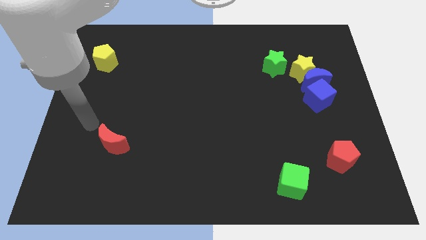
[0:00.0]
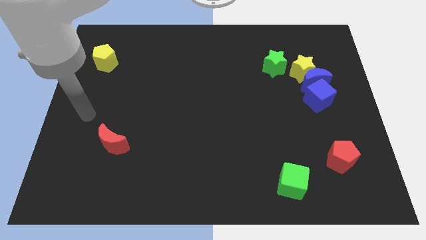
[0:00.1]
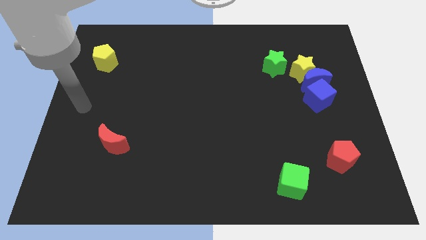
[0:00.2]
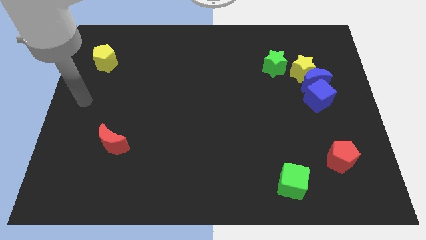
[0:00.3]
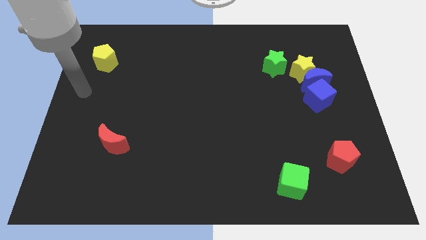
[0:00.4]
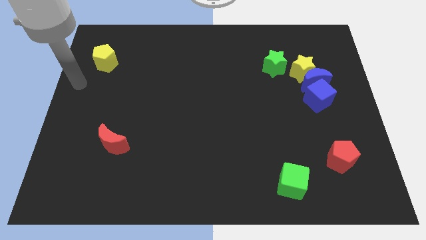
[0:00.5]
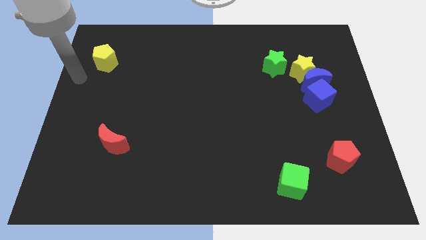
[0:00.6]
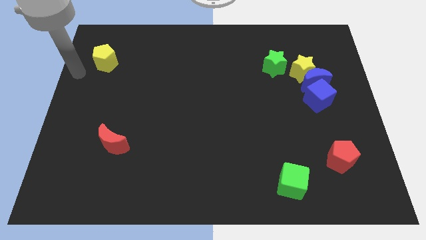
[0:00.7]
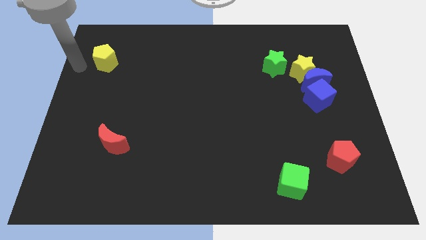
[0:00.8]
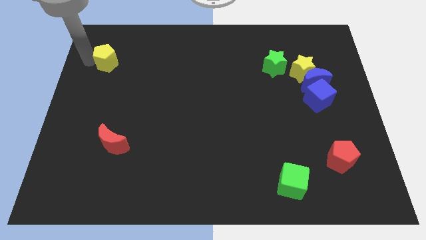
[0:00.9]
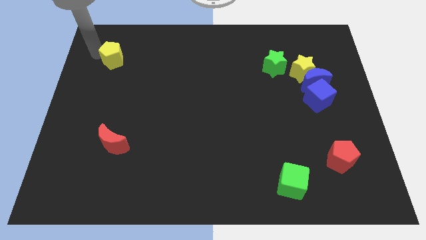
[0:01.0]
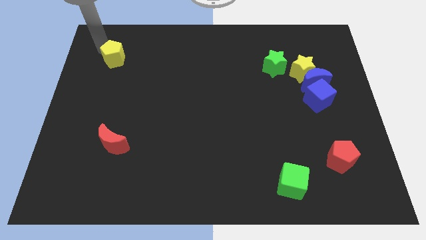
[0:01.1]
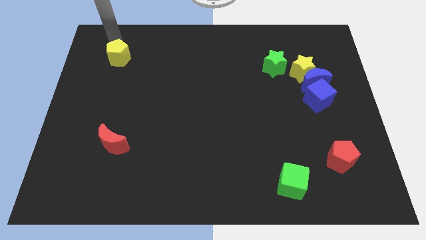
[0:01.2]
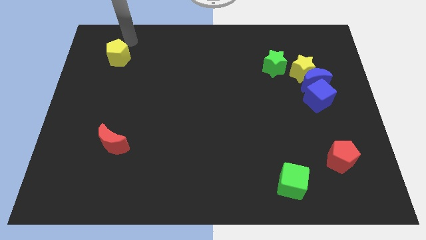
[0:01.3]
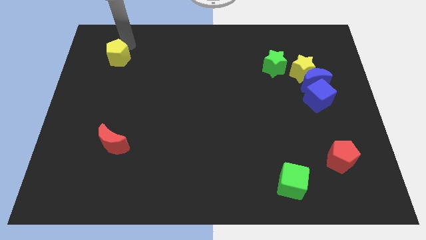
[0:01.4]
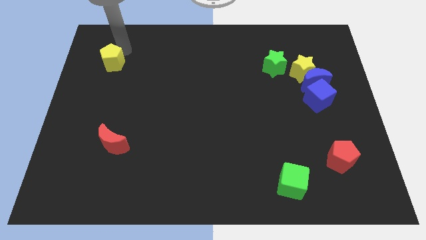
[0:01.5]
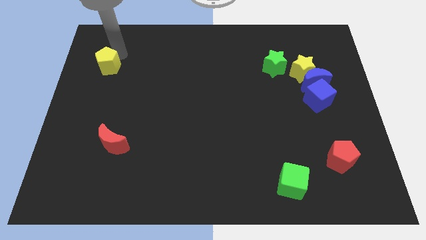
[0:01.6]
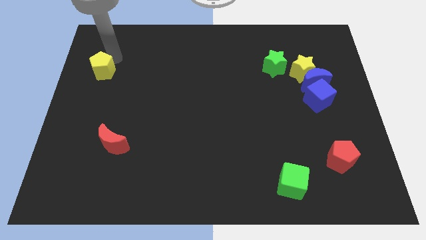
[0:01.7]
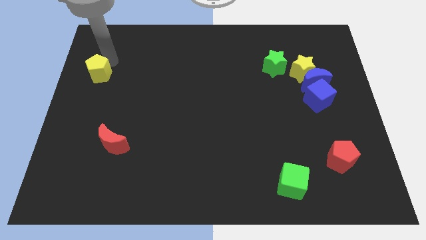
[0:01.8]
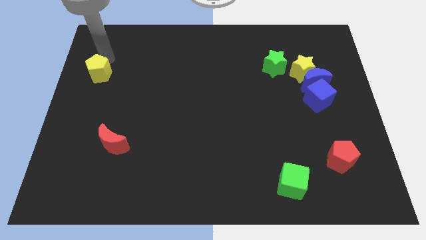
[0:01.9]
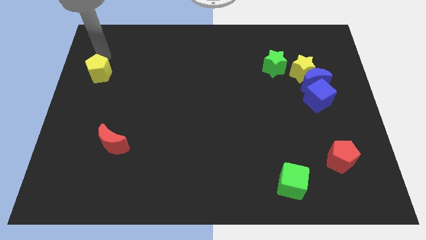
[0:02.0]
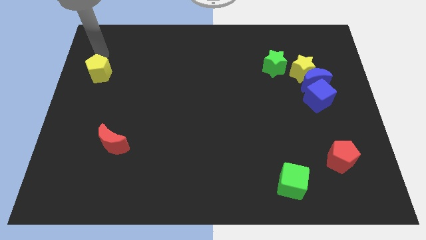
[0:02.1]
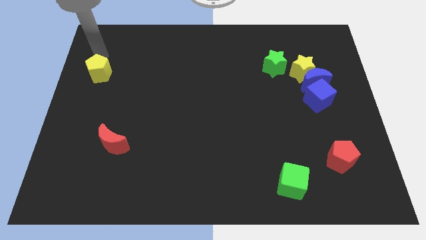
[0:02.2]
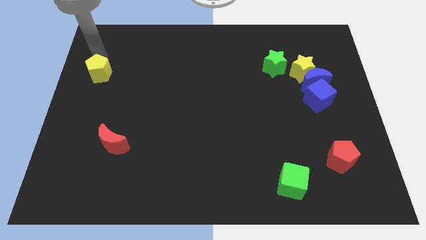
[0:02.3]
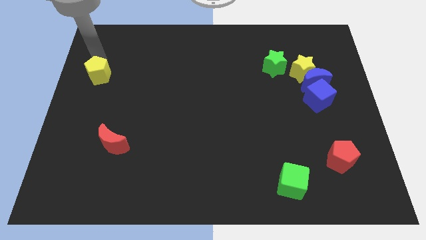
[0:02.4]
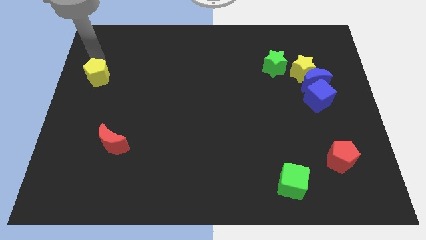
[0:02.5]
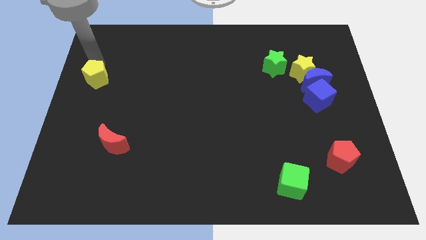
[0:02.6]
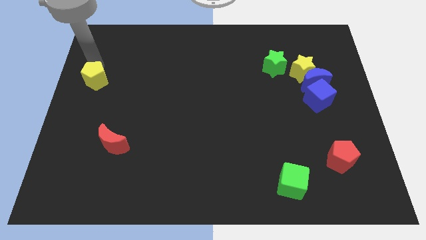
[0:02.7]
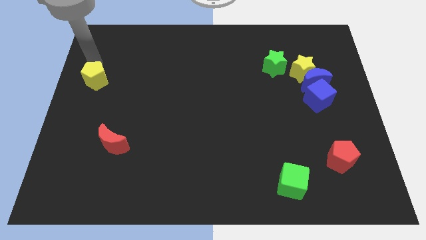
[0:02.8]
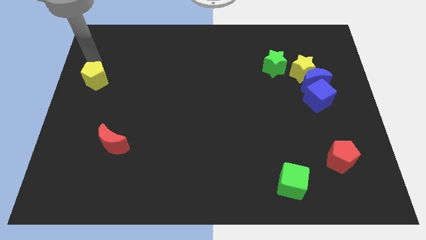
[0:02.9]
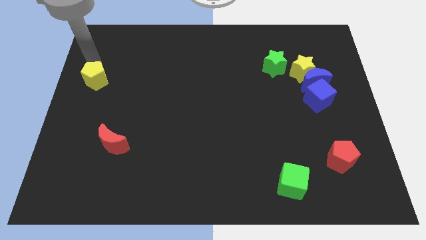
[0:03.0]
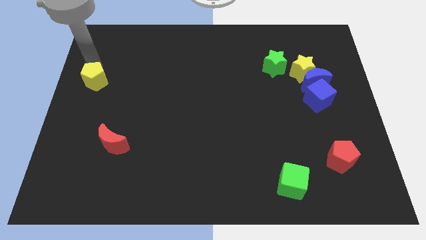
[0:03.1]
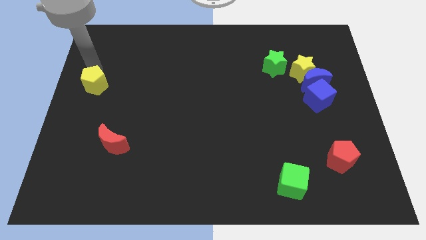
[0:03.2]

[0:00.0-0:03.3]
slide the yellow pentagon a little bit downwards

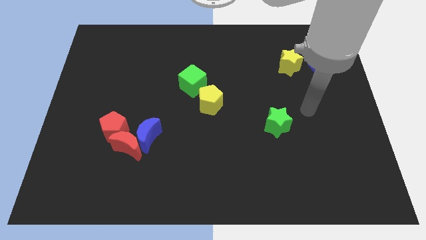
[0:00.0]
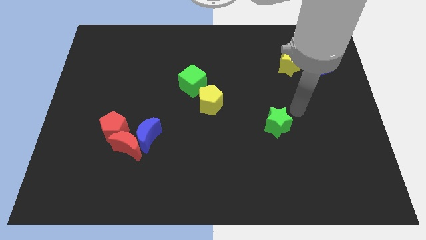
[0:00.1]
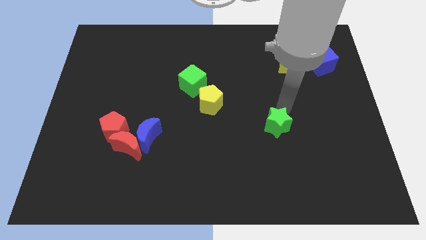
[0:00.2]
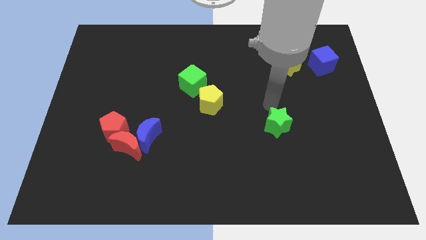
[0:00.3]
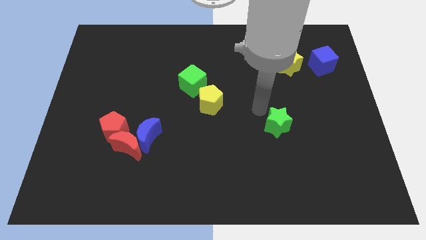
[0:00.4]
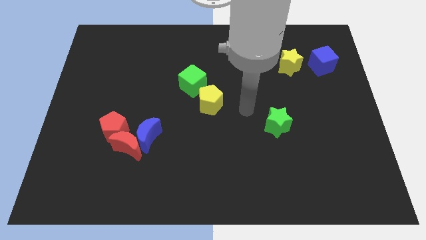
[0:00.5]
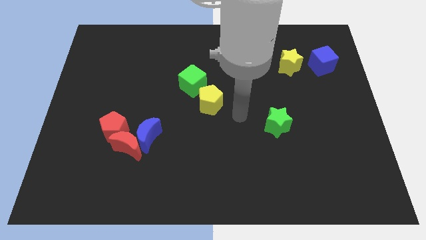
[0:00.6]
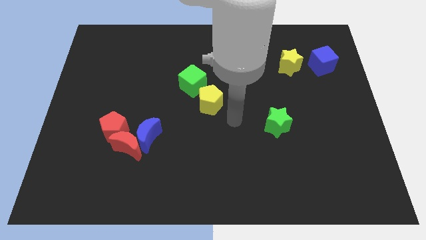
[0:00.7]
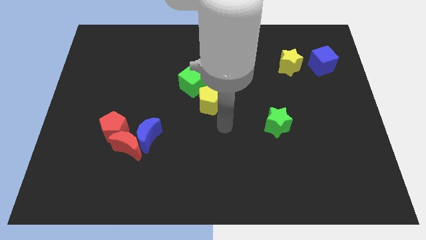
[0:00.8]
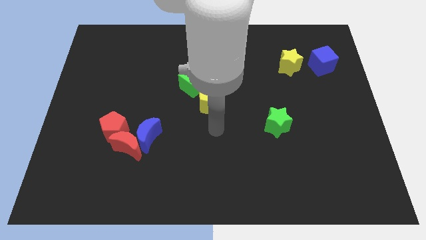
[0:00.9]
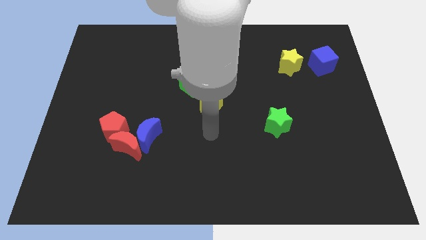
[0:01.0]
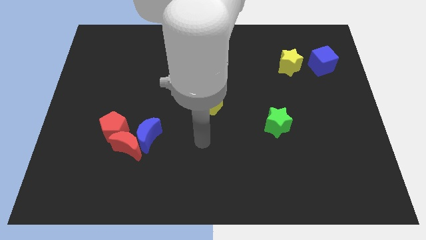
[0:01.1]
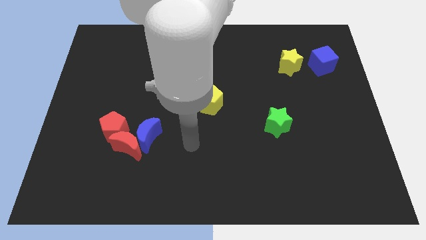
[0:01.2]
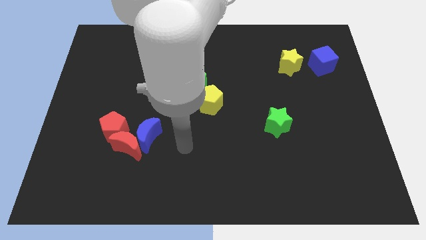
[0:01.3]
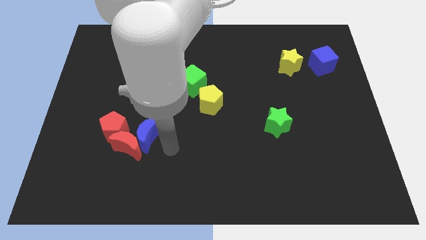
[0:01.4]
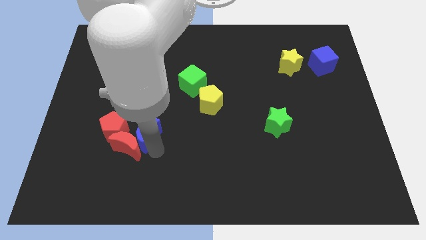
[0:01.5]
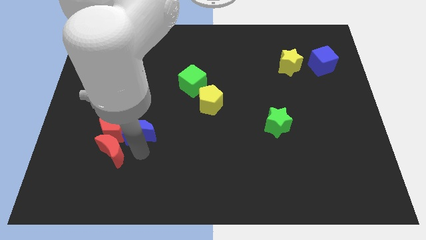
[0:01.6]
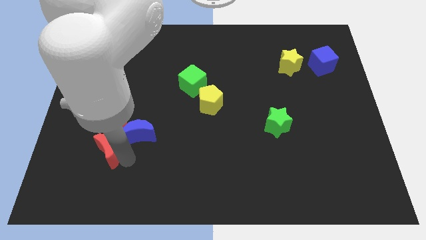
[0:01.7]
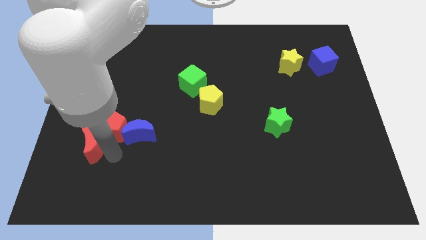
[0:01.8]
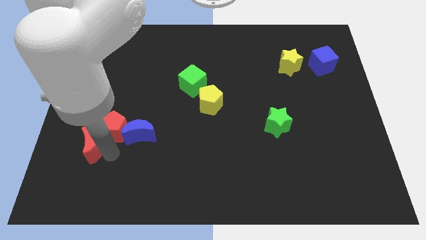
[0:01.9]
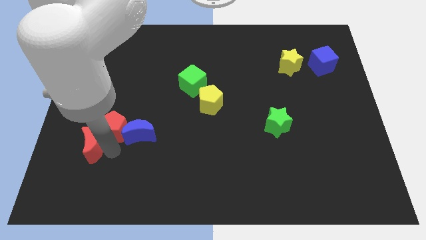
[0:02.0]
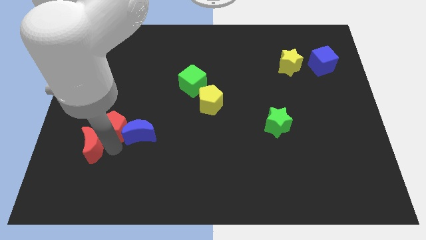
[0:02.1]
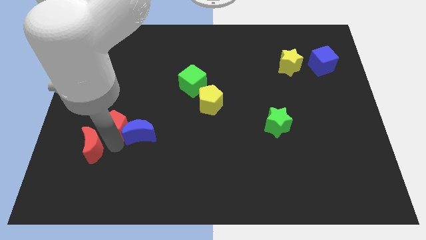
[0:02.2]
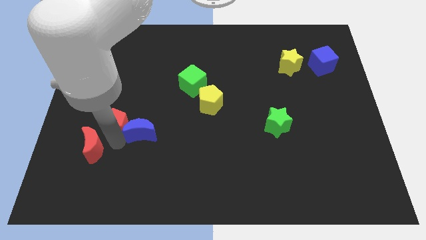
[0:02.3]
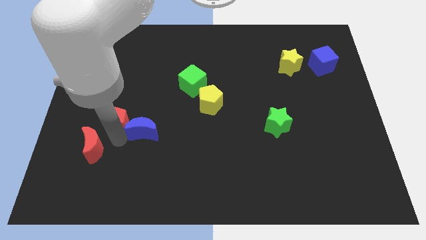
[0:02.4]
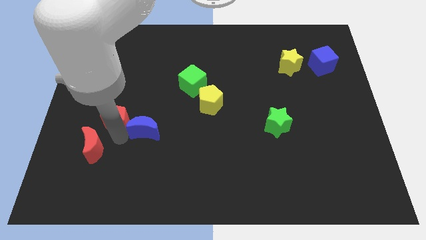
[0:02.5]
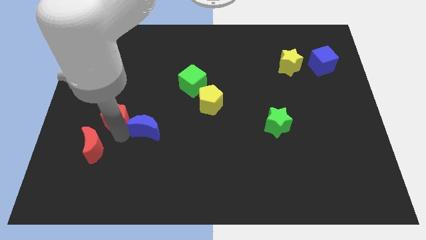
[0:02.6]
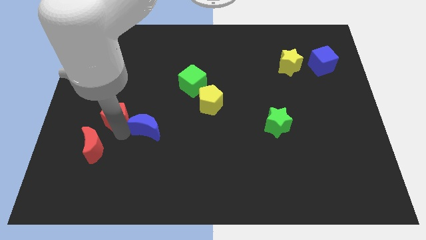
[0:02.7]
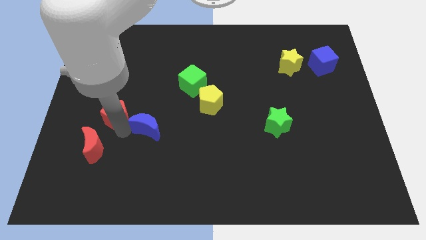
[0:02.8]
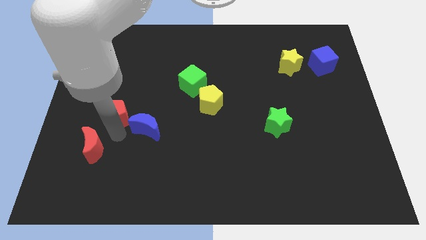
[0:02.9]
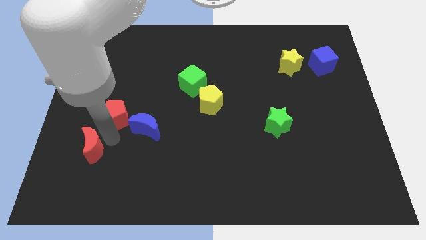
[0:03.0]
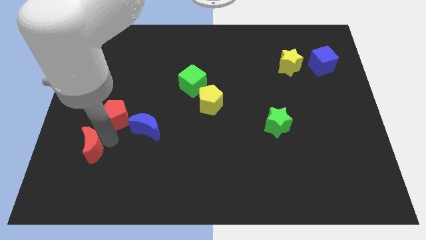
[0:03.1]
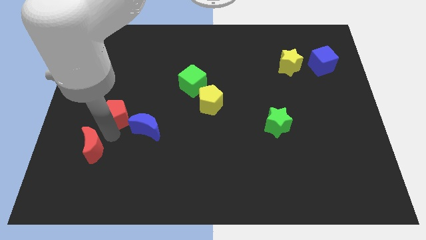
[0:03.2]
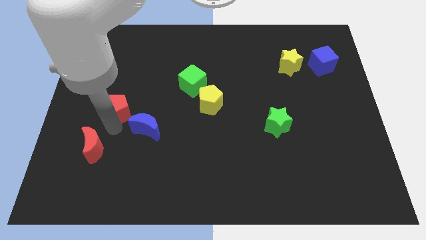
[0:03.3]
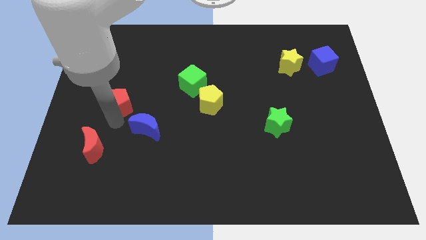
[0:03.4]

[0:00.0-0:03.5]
move the red pentagon slightly upwards

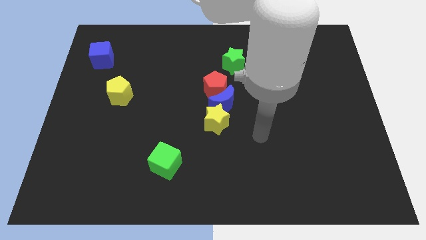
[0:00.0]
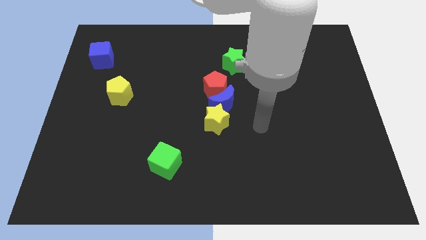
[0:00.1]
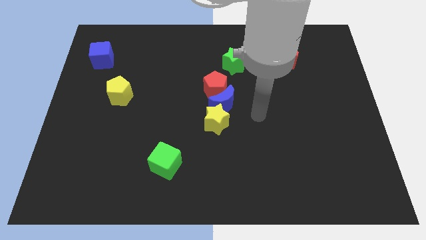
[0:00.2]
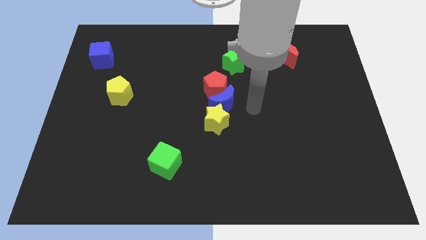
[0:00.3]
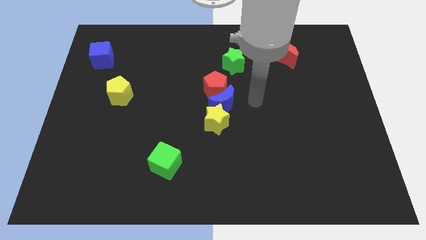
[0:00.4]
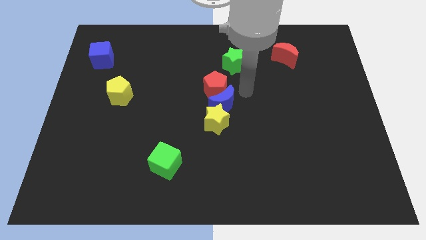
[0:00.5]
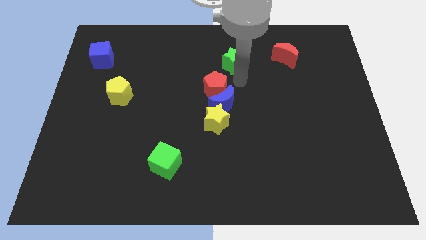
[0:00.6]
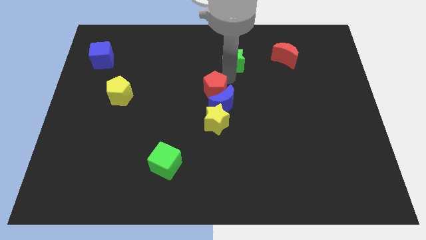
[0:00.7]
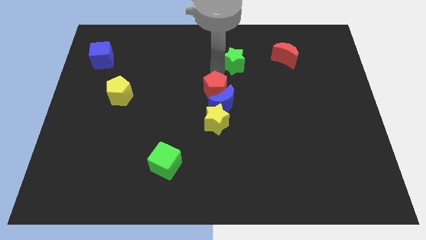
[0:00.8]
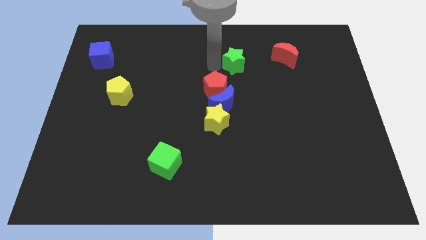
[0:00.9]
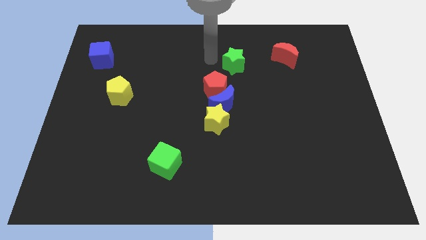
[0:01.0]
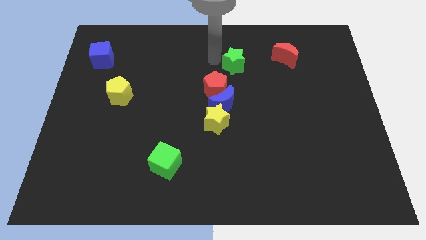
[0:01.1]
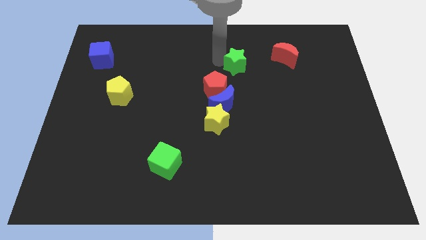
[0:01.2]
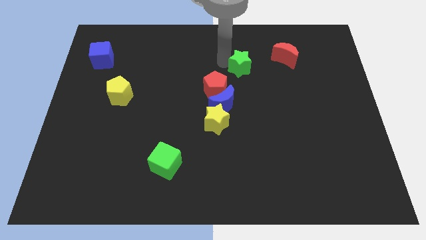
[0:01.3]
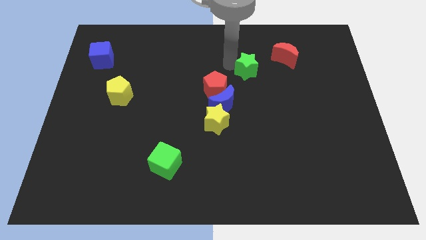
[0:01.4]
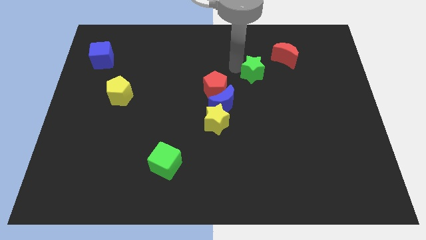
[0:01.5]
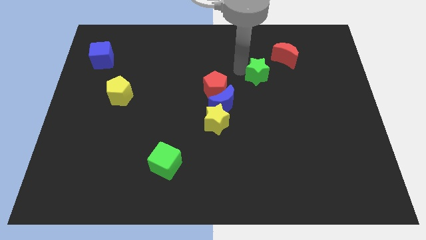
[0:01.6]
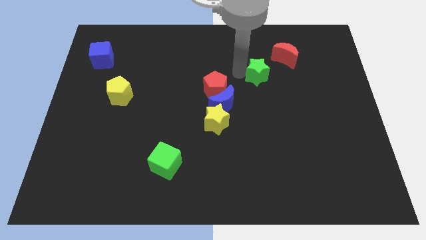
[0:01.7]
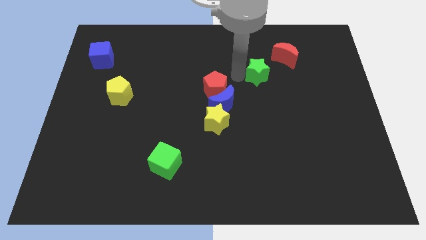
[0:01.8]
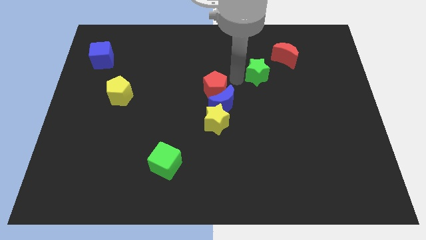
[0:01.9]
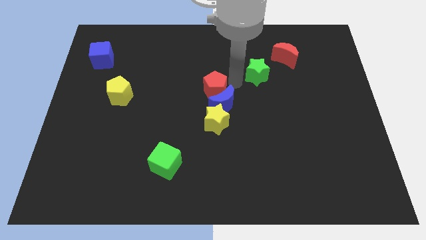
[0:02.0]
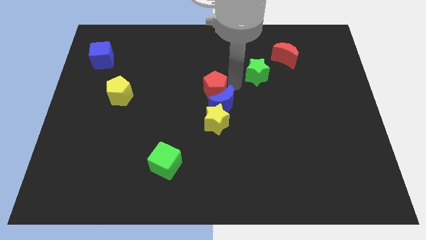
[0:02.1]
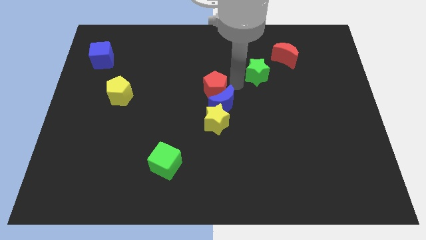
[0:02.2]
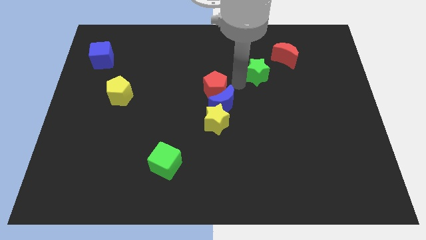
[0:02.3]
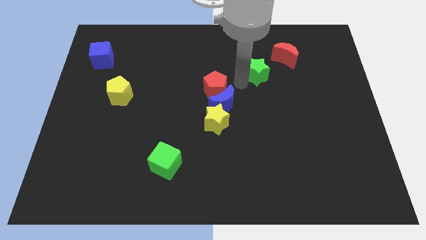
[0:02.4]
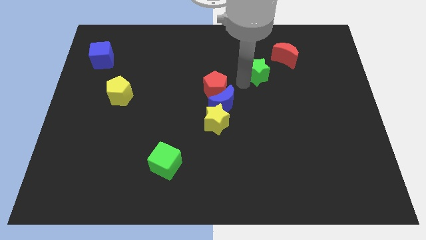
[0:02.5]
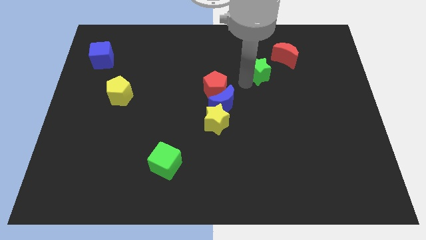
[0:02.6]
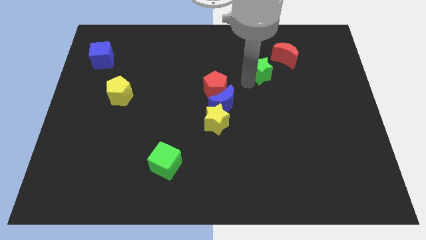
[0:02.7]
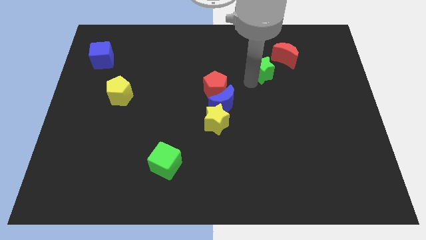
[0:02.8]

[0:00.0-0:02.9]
move the green star a little to the right
